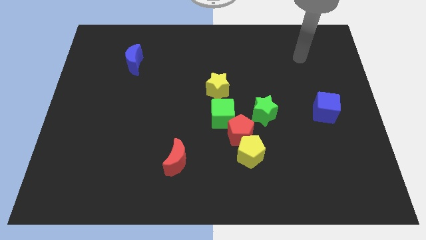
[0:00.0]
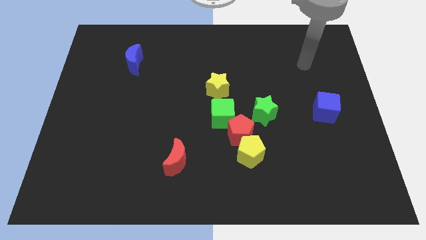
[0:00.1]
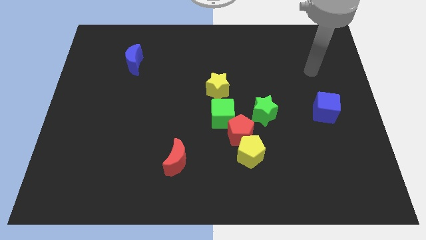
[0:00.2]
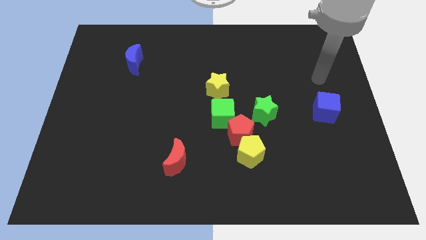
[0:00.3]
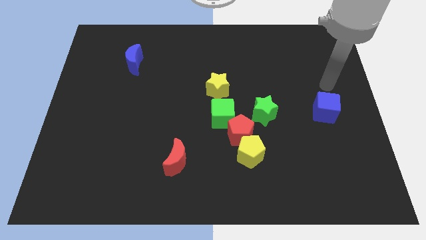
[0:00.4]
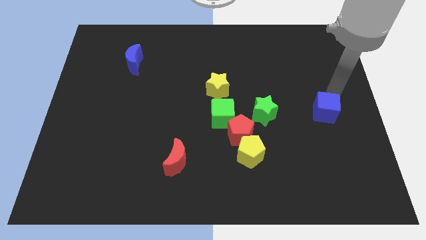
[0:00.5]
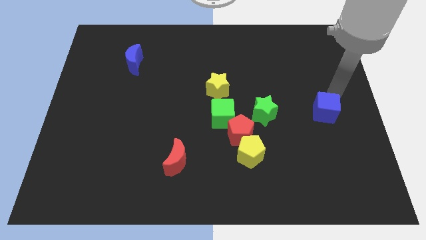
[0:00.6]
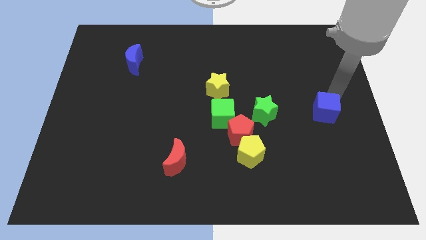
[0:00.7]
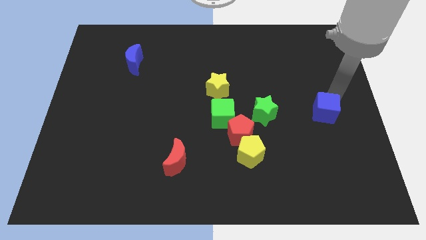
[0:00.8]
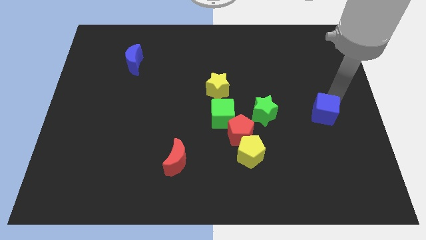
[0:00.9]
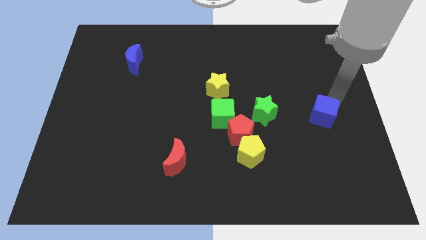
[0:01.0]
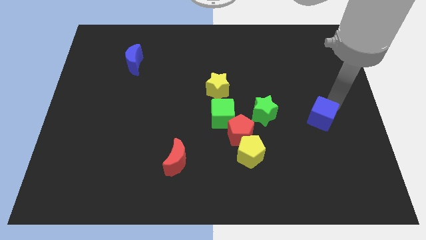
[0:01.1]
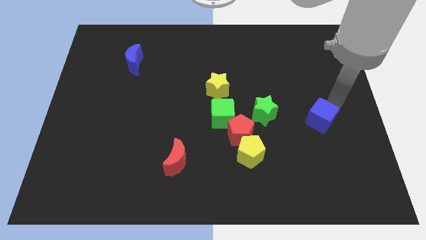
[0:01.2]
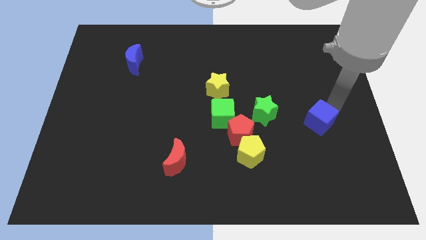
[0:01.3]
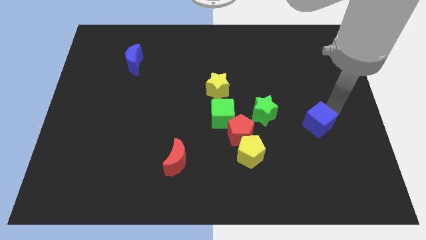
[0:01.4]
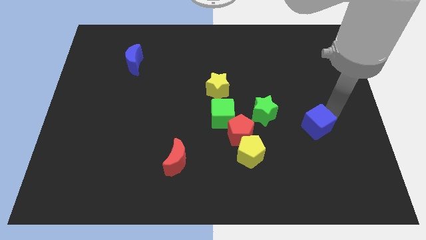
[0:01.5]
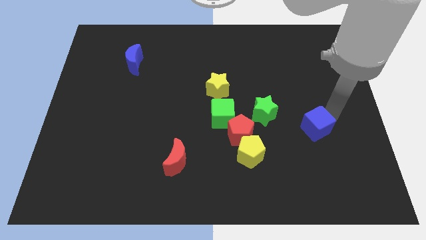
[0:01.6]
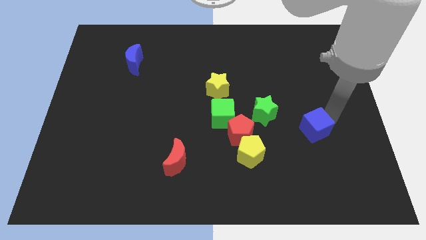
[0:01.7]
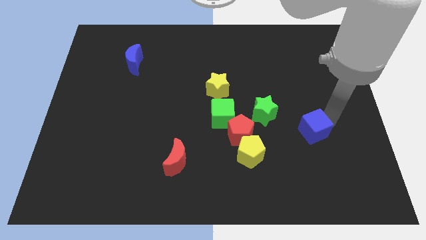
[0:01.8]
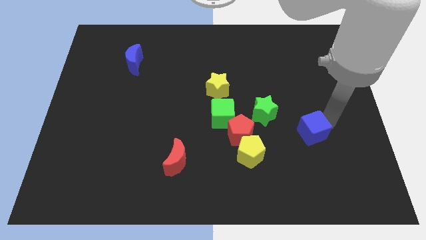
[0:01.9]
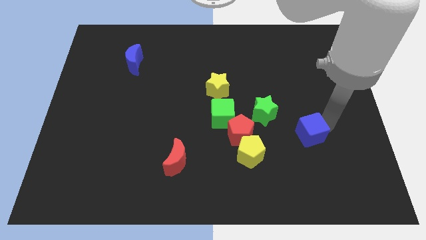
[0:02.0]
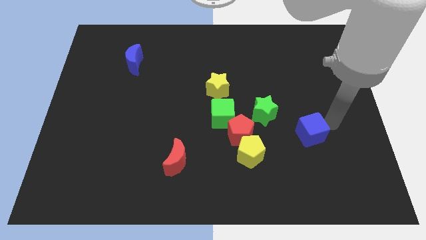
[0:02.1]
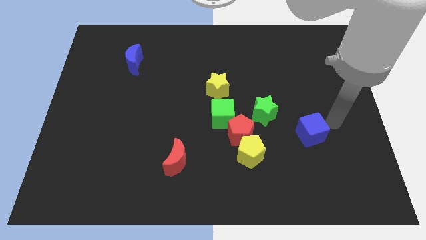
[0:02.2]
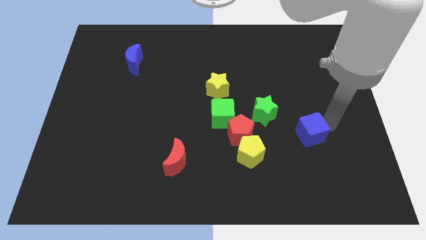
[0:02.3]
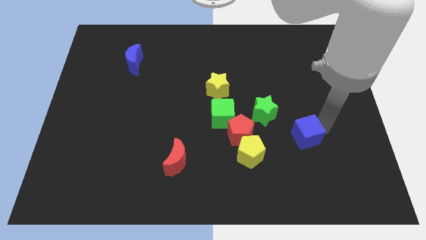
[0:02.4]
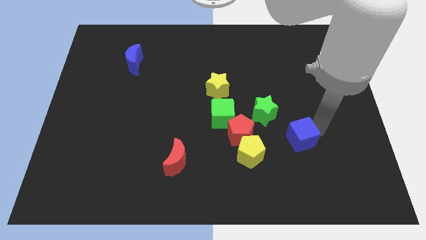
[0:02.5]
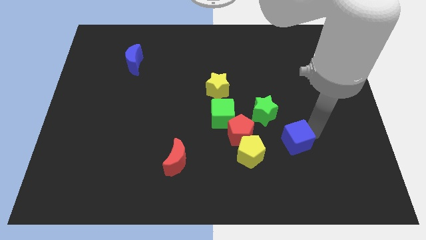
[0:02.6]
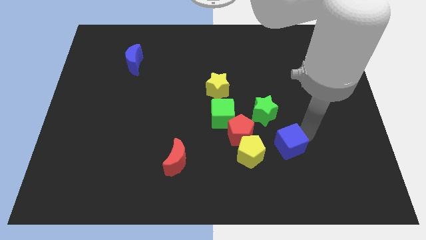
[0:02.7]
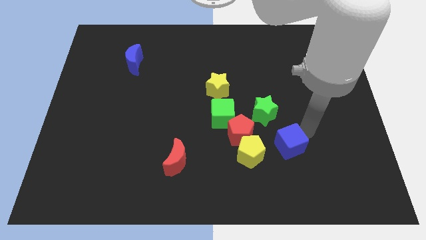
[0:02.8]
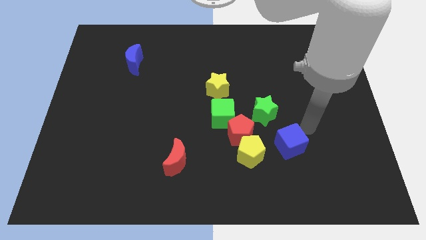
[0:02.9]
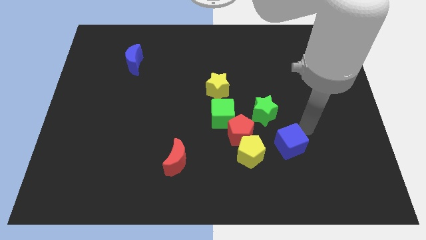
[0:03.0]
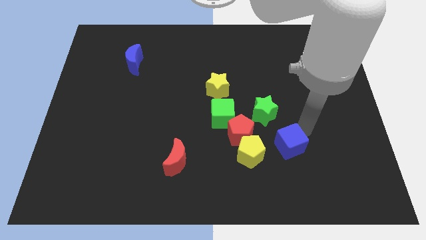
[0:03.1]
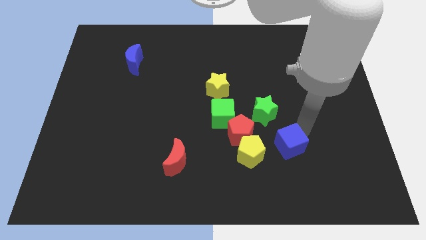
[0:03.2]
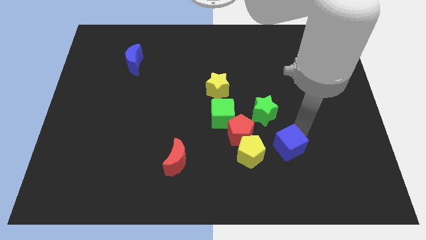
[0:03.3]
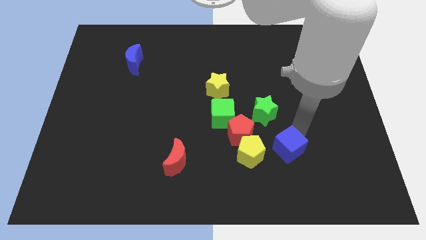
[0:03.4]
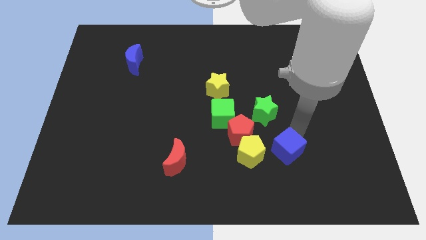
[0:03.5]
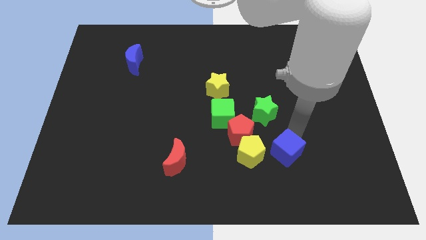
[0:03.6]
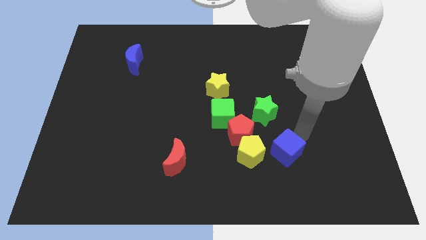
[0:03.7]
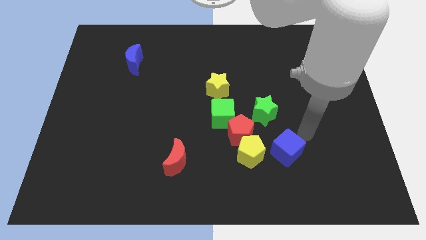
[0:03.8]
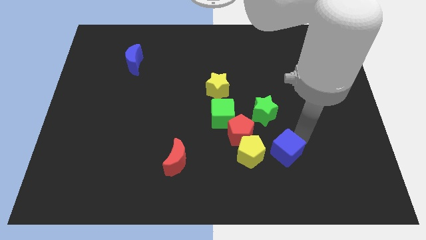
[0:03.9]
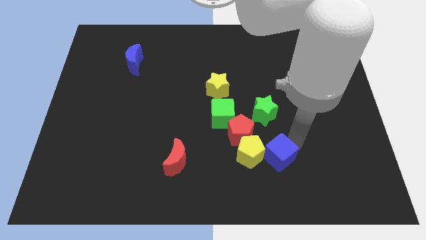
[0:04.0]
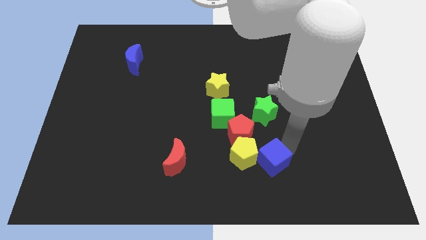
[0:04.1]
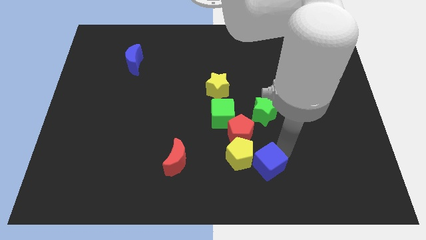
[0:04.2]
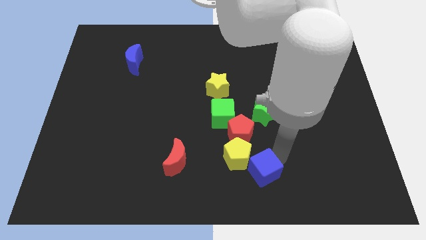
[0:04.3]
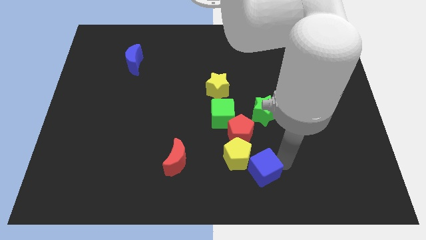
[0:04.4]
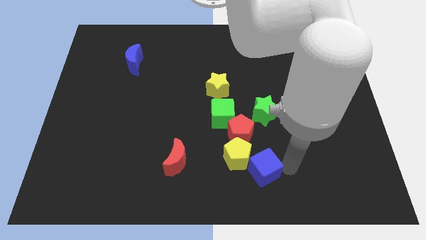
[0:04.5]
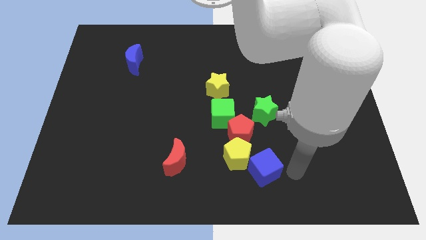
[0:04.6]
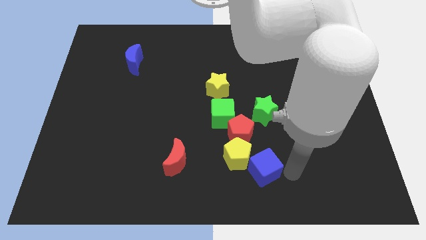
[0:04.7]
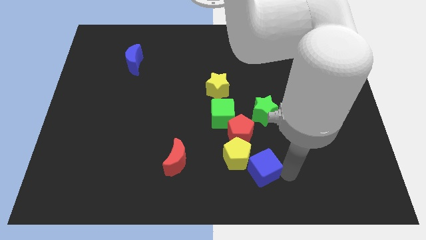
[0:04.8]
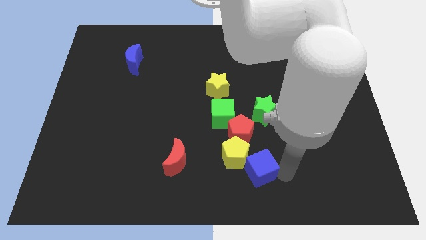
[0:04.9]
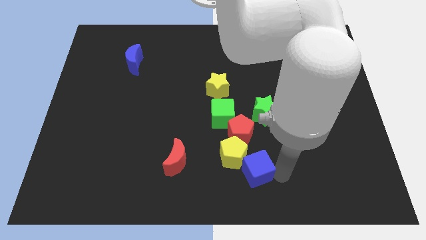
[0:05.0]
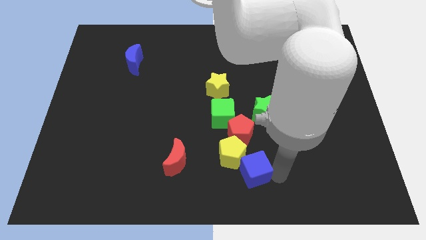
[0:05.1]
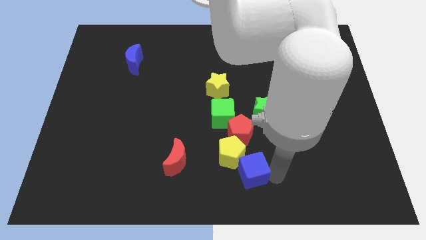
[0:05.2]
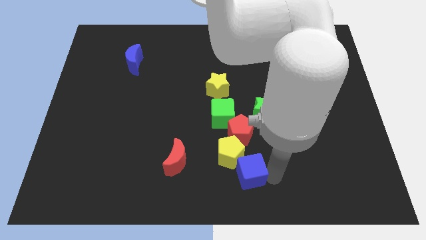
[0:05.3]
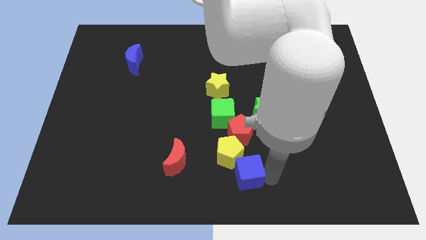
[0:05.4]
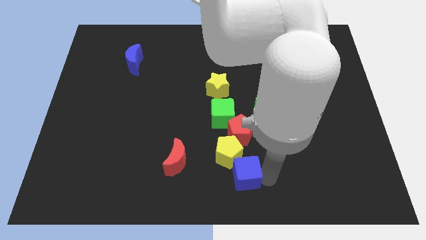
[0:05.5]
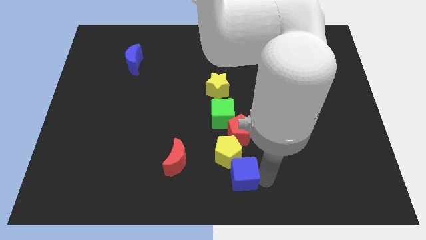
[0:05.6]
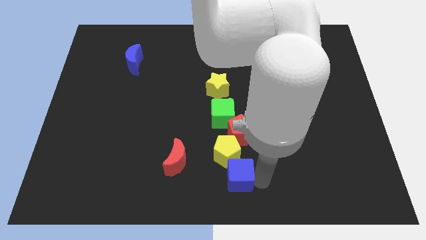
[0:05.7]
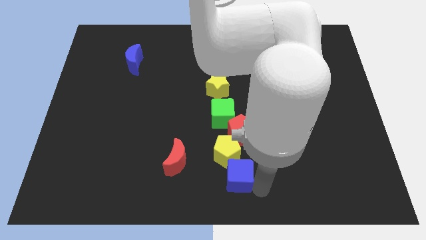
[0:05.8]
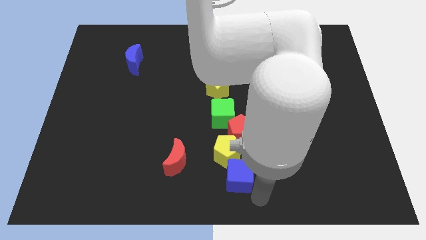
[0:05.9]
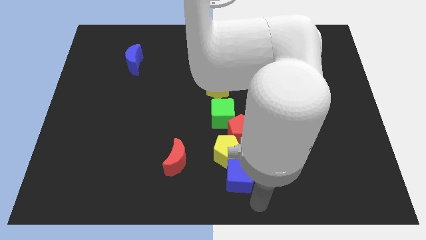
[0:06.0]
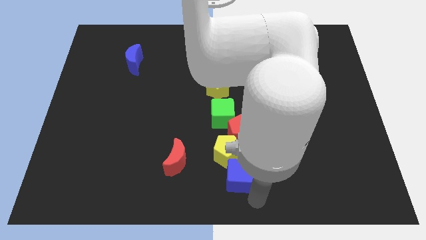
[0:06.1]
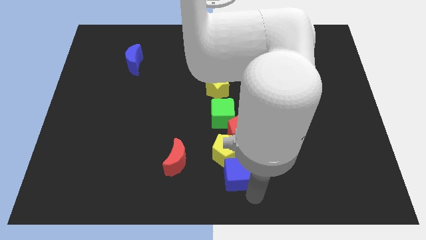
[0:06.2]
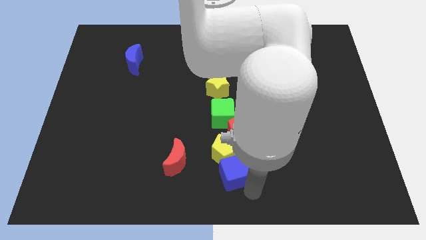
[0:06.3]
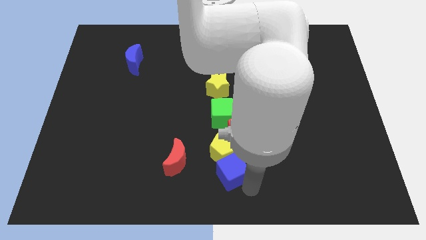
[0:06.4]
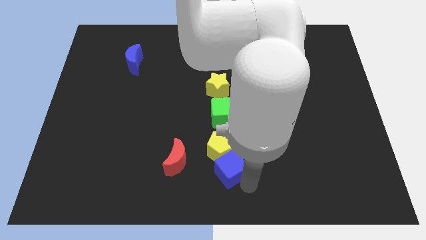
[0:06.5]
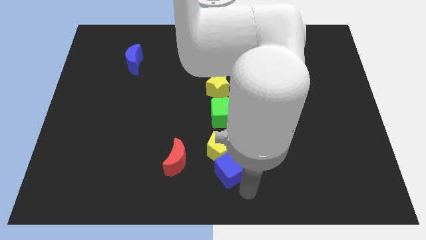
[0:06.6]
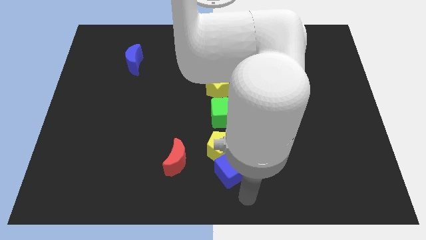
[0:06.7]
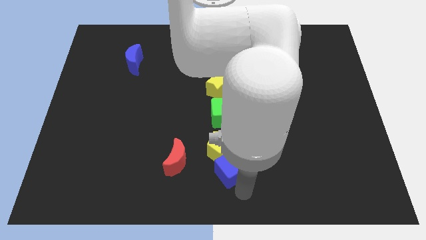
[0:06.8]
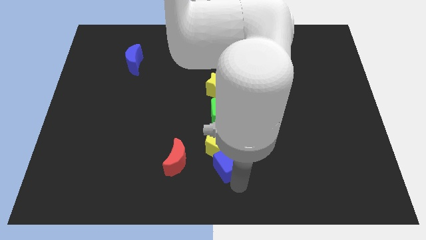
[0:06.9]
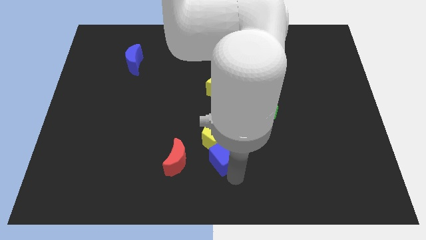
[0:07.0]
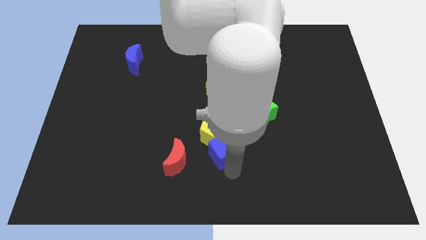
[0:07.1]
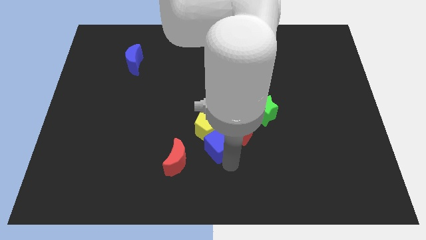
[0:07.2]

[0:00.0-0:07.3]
put the blue cube to the top right side of the red moon

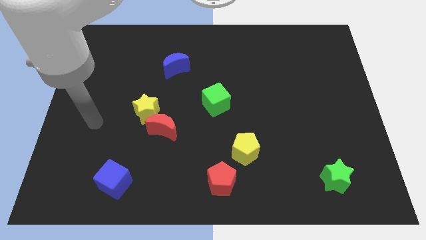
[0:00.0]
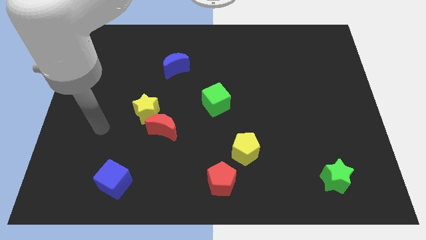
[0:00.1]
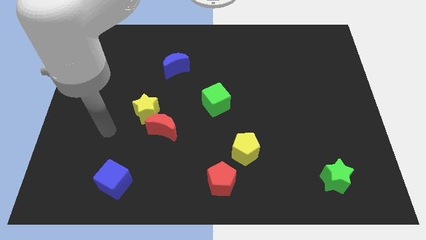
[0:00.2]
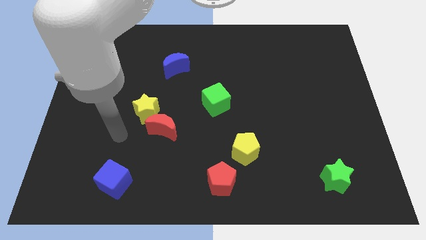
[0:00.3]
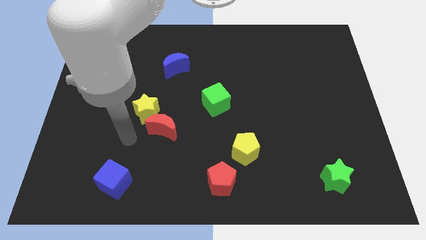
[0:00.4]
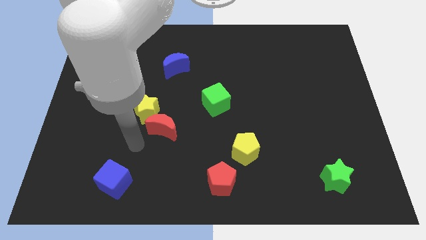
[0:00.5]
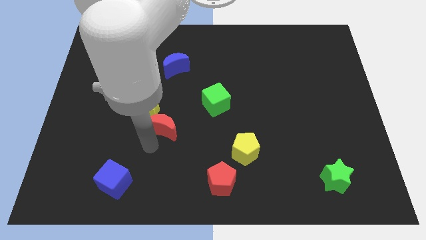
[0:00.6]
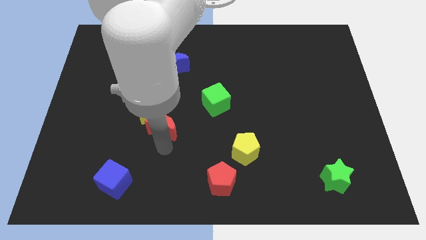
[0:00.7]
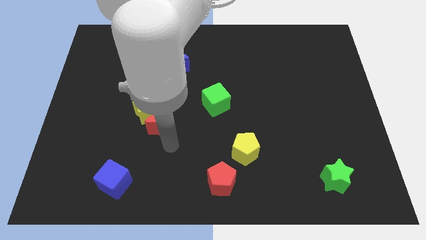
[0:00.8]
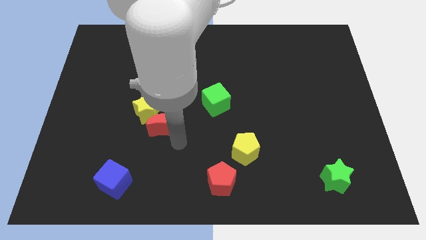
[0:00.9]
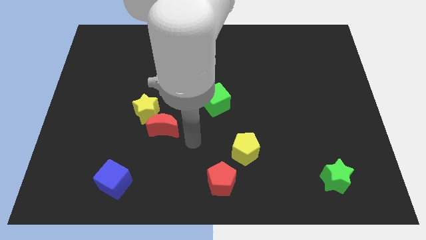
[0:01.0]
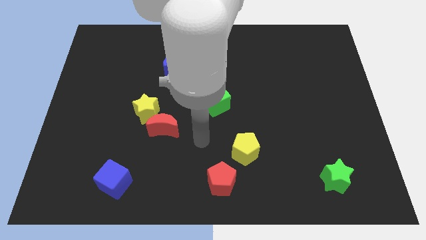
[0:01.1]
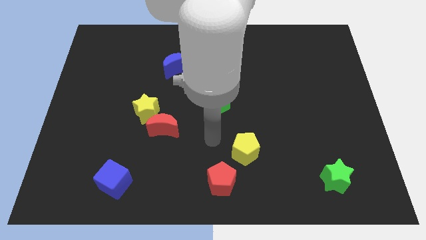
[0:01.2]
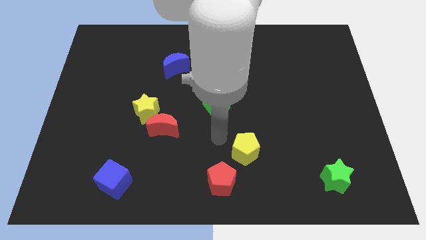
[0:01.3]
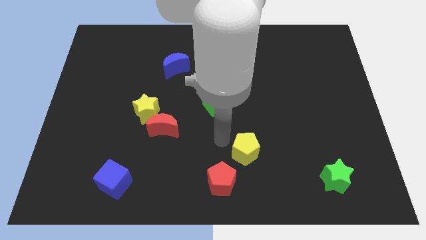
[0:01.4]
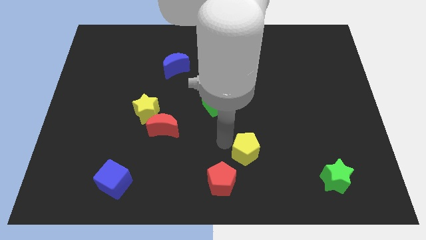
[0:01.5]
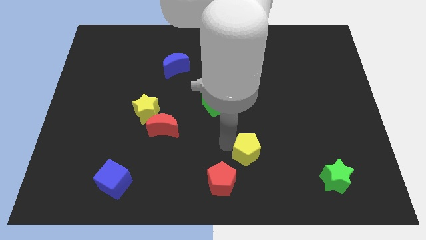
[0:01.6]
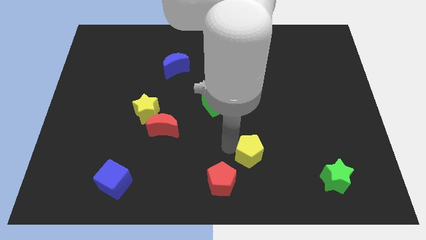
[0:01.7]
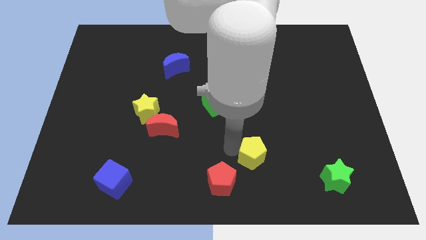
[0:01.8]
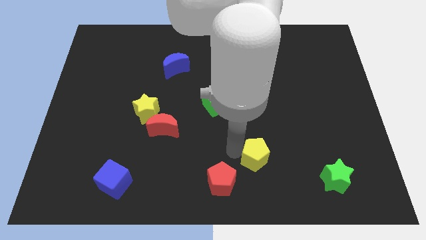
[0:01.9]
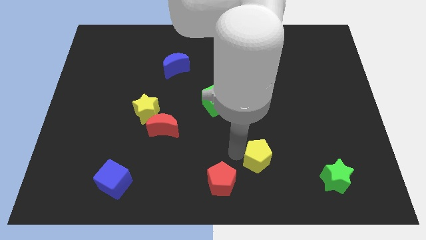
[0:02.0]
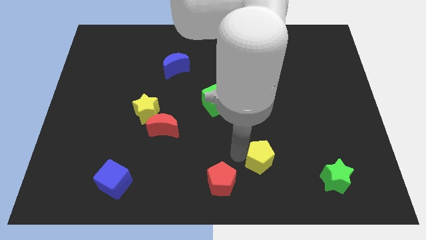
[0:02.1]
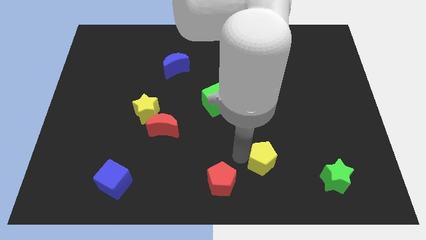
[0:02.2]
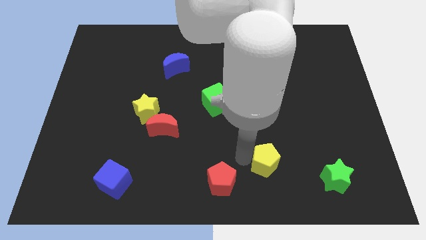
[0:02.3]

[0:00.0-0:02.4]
slide the yellow pentagon left of the green star
